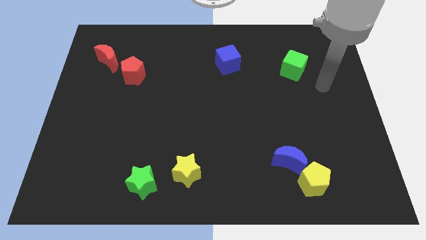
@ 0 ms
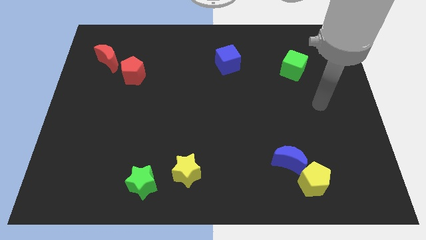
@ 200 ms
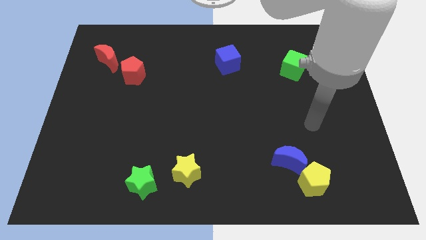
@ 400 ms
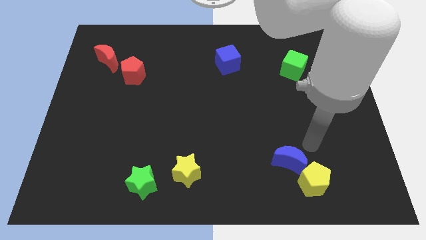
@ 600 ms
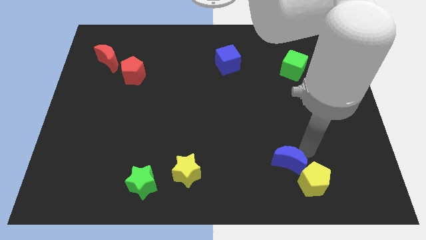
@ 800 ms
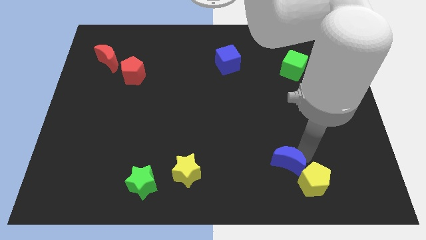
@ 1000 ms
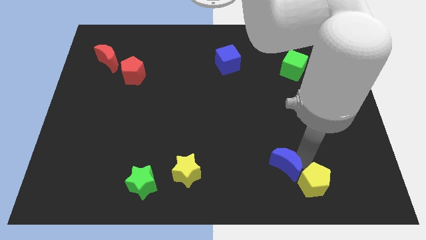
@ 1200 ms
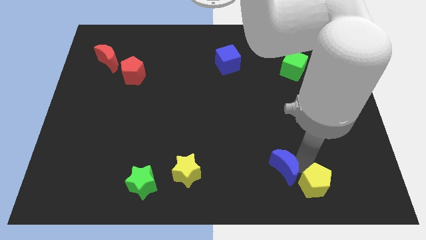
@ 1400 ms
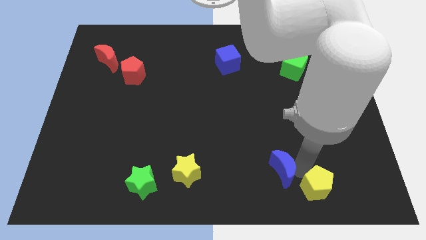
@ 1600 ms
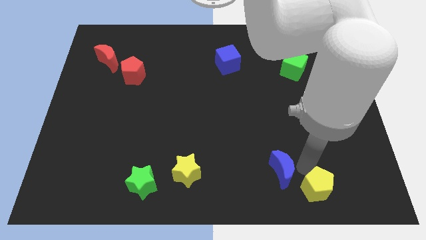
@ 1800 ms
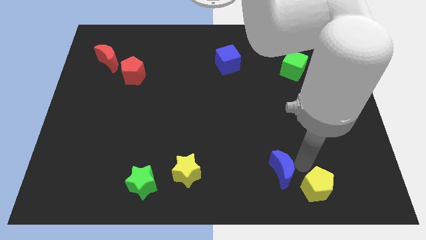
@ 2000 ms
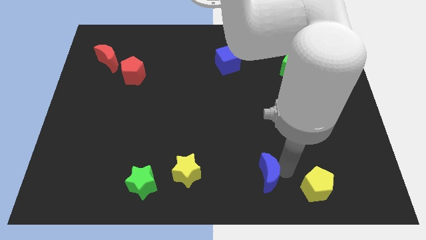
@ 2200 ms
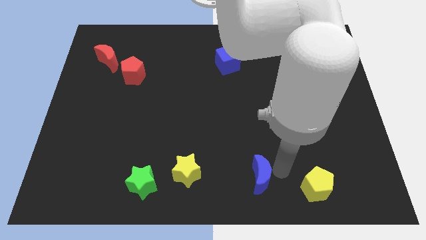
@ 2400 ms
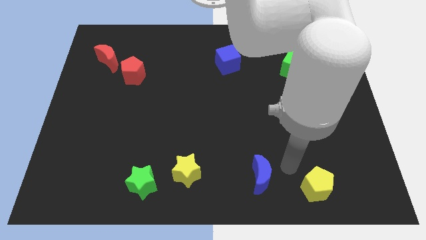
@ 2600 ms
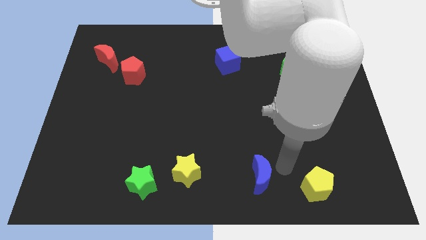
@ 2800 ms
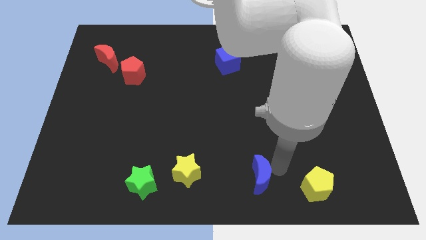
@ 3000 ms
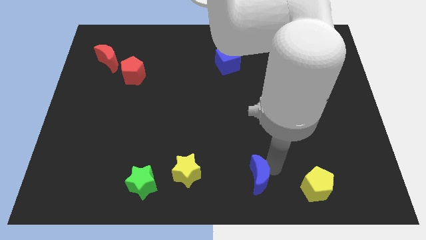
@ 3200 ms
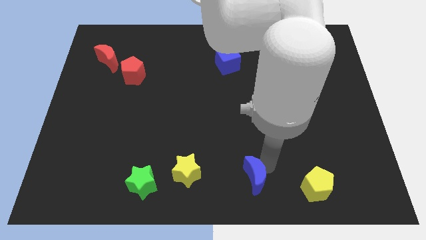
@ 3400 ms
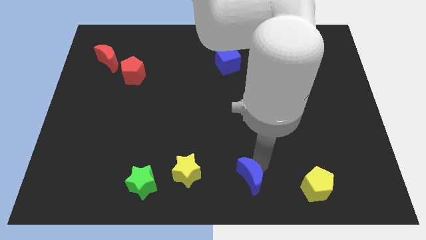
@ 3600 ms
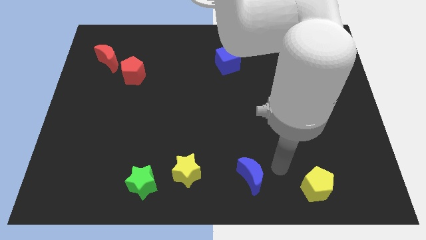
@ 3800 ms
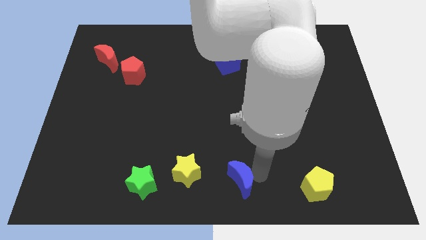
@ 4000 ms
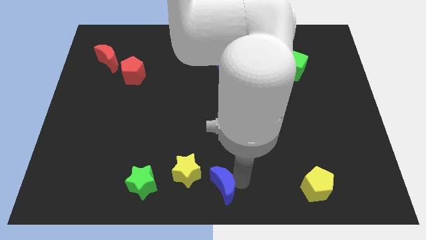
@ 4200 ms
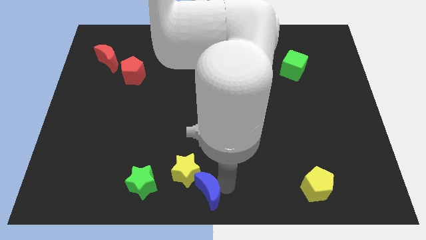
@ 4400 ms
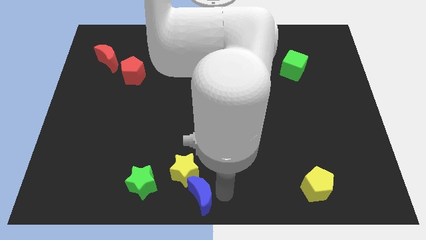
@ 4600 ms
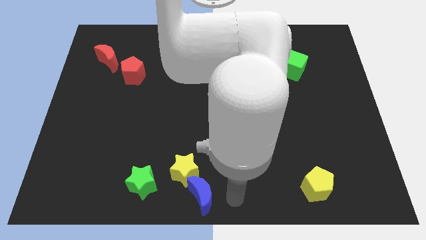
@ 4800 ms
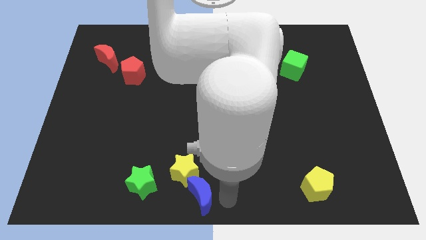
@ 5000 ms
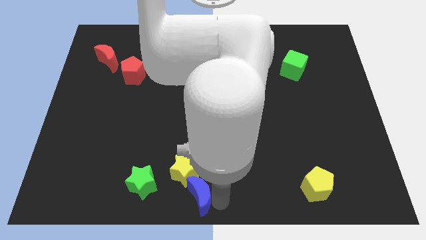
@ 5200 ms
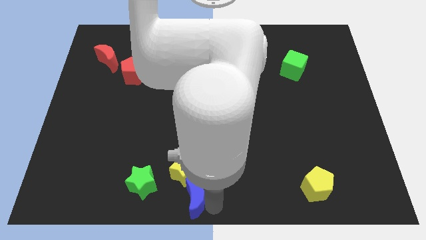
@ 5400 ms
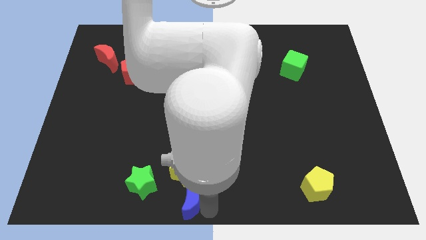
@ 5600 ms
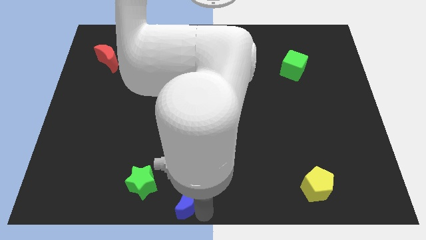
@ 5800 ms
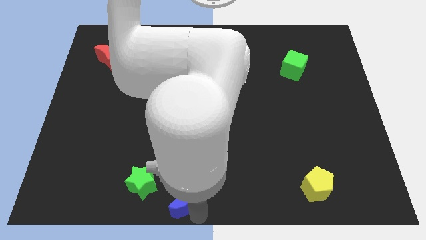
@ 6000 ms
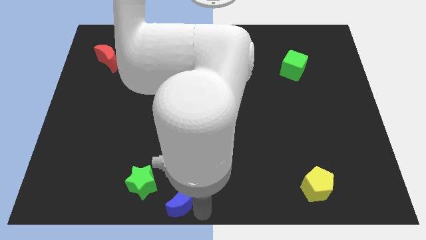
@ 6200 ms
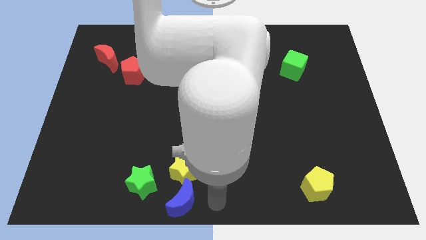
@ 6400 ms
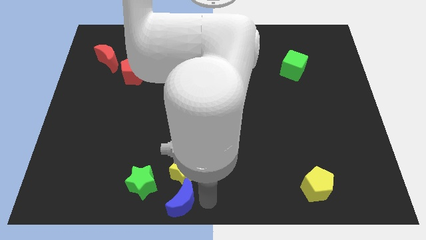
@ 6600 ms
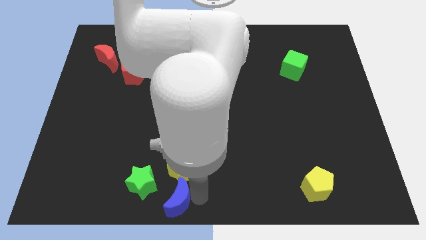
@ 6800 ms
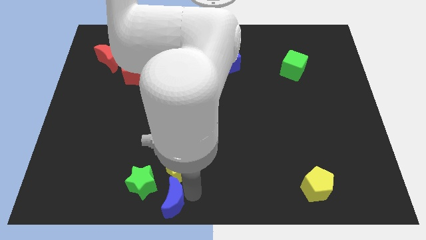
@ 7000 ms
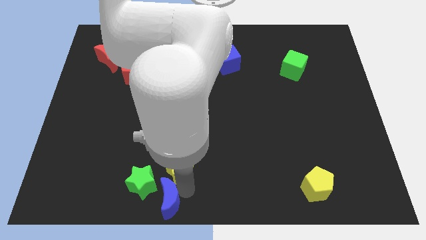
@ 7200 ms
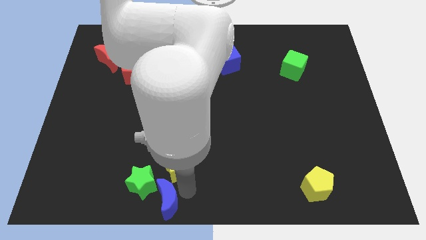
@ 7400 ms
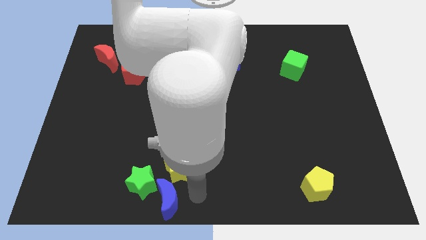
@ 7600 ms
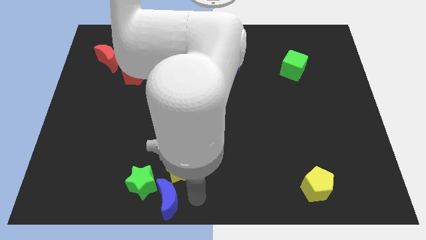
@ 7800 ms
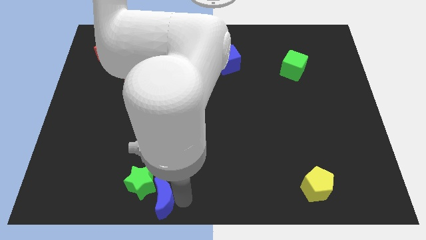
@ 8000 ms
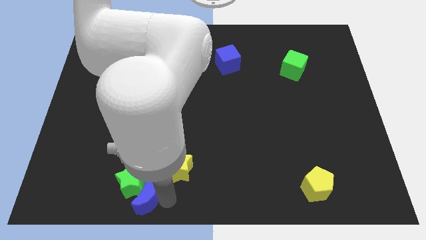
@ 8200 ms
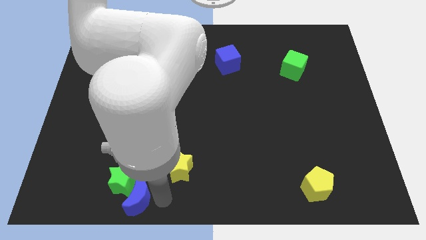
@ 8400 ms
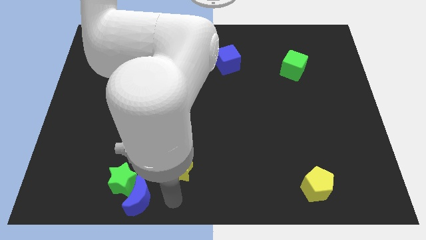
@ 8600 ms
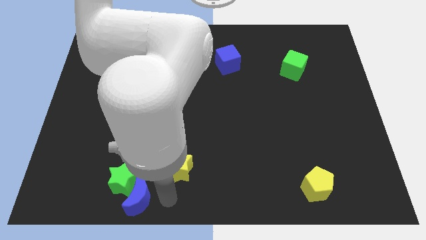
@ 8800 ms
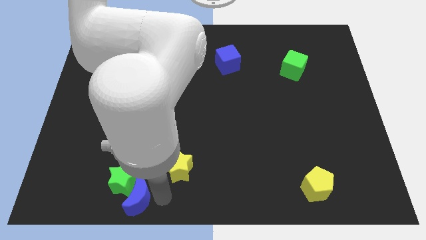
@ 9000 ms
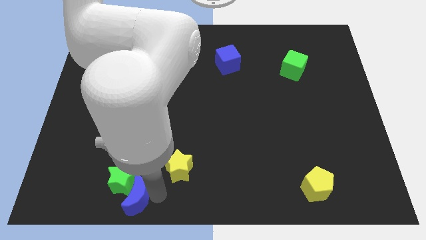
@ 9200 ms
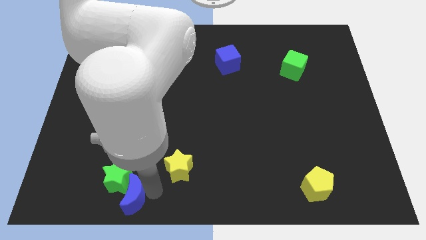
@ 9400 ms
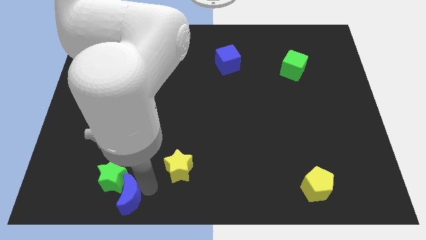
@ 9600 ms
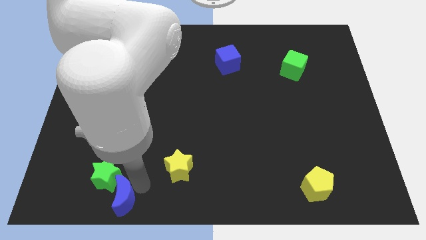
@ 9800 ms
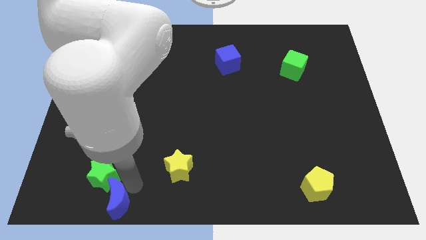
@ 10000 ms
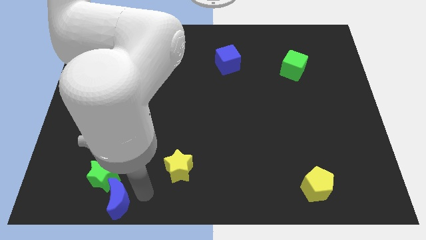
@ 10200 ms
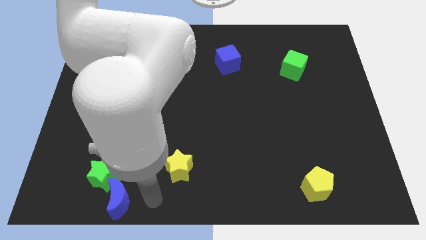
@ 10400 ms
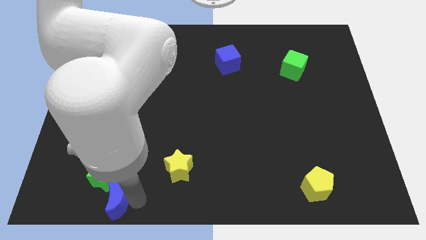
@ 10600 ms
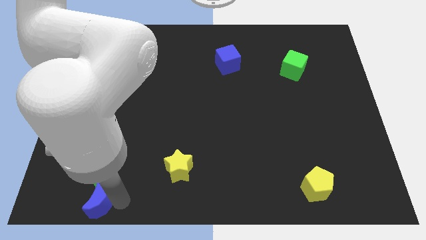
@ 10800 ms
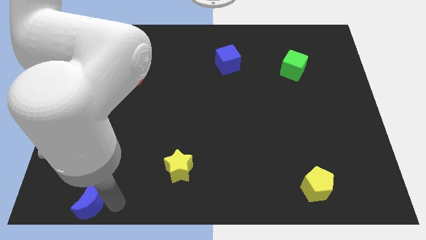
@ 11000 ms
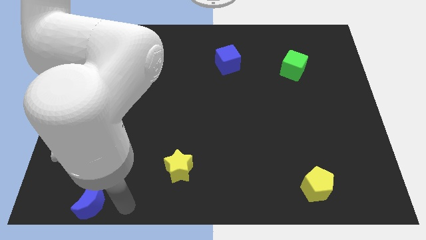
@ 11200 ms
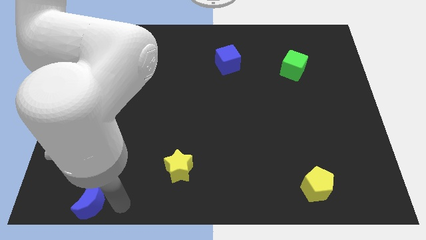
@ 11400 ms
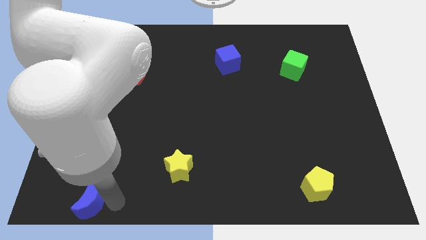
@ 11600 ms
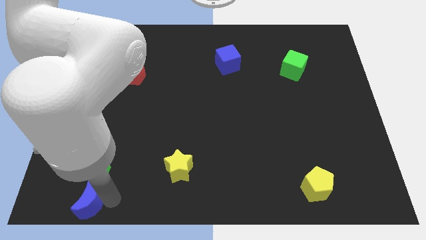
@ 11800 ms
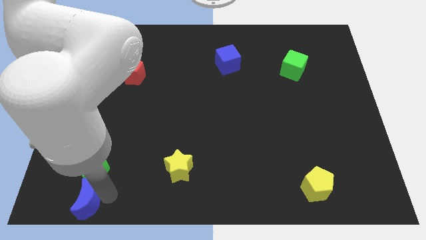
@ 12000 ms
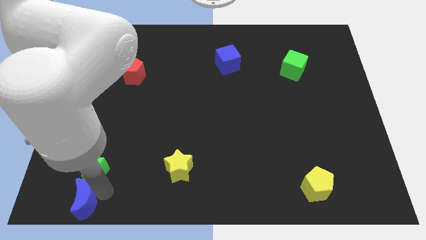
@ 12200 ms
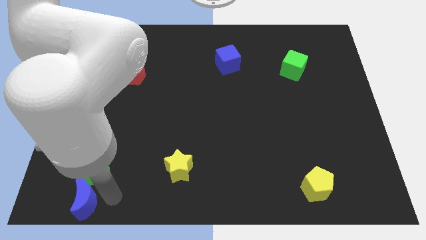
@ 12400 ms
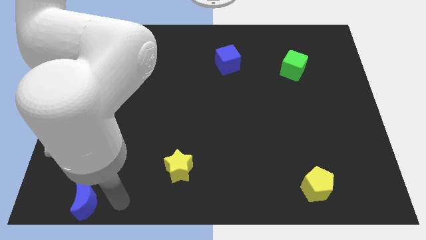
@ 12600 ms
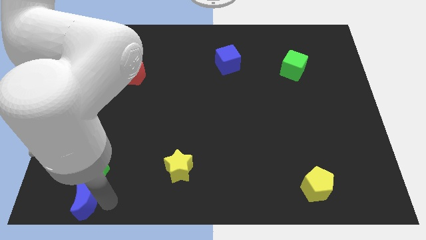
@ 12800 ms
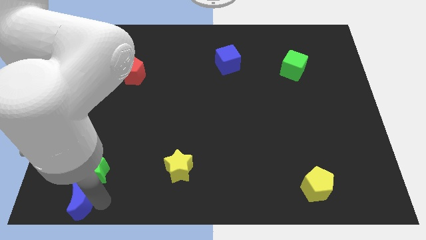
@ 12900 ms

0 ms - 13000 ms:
push the blue moon to the lower left corner
